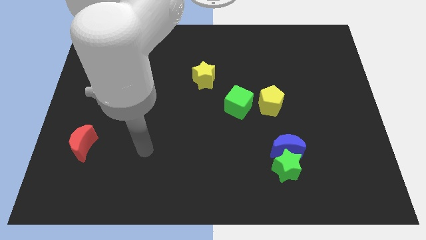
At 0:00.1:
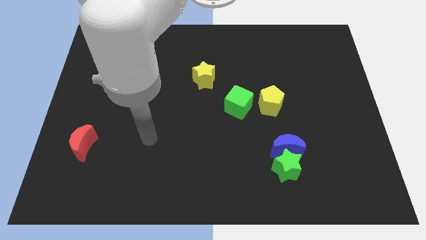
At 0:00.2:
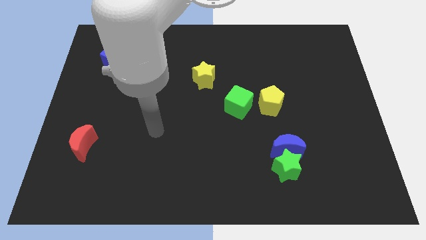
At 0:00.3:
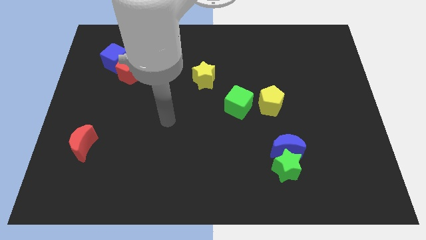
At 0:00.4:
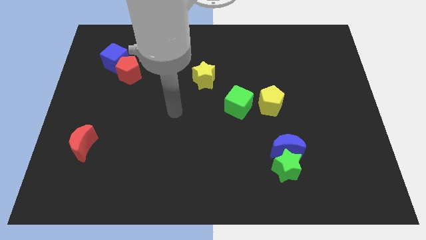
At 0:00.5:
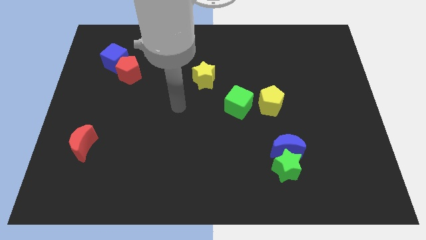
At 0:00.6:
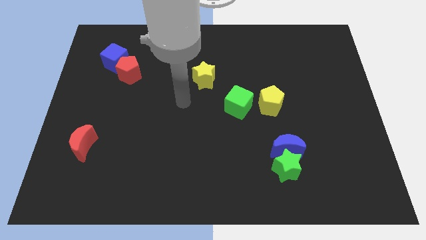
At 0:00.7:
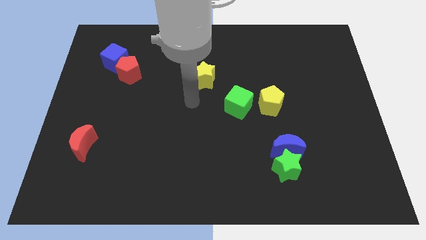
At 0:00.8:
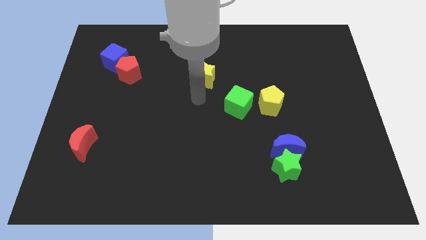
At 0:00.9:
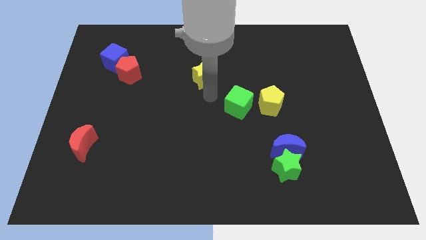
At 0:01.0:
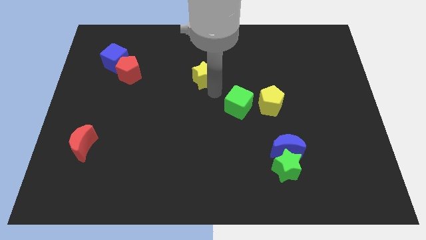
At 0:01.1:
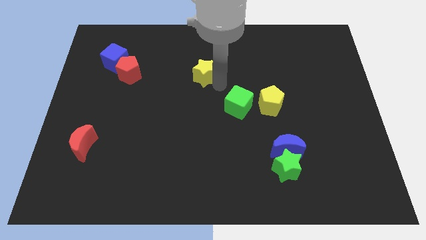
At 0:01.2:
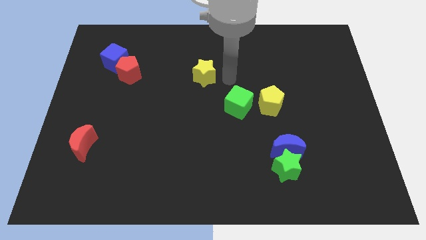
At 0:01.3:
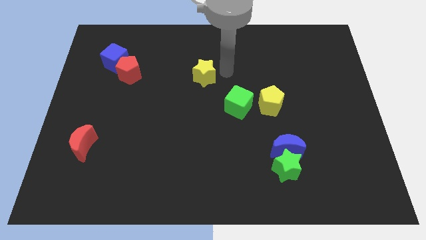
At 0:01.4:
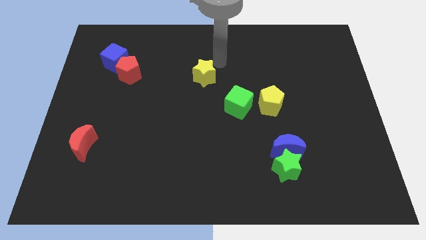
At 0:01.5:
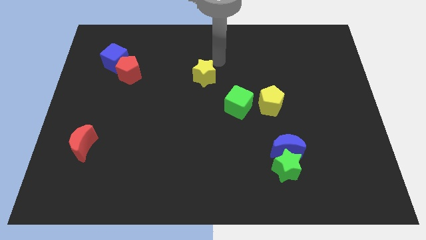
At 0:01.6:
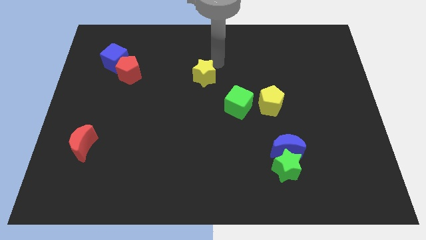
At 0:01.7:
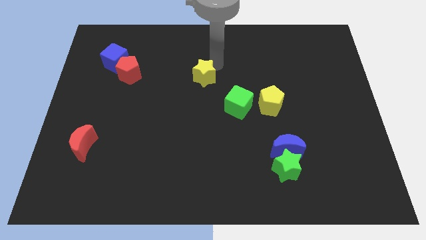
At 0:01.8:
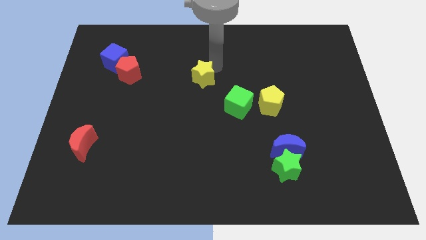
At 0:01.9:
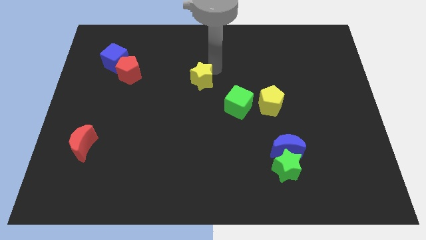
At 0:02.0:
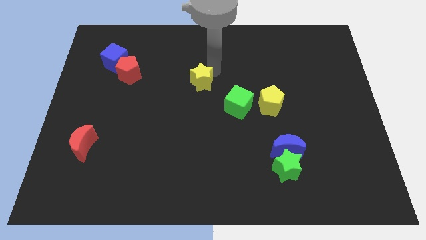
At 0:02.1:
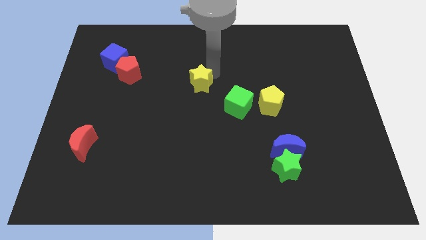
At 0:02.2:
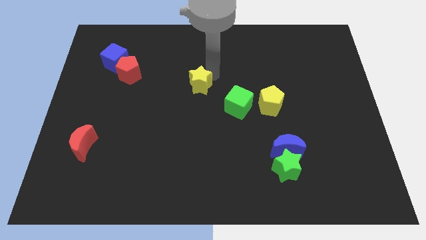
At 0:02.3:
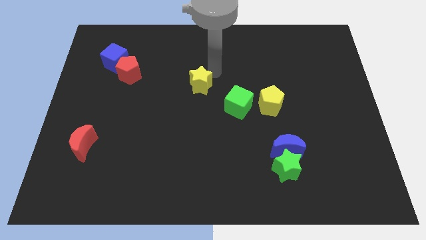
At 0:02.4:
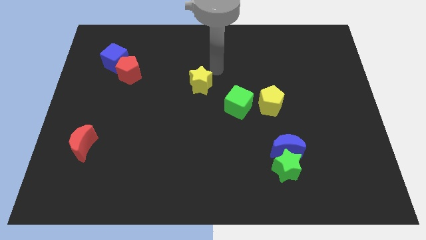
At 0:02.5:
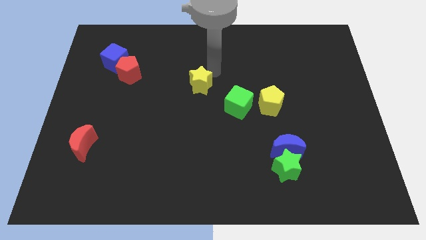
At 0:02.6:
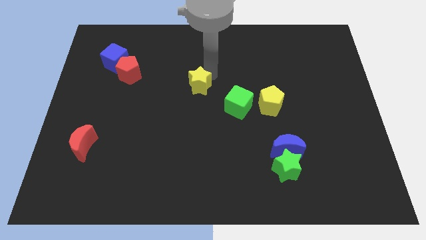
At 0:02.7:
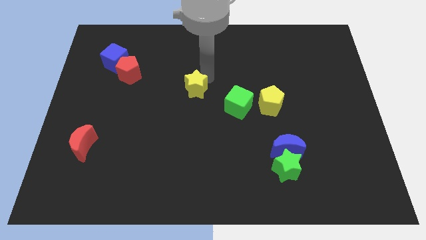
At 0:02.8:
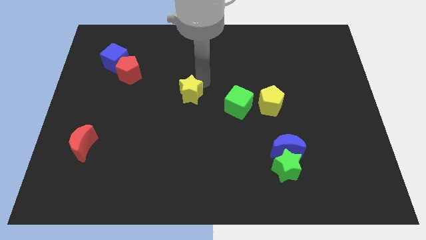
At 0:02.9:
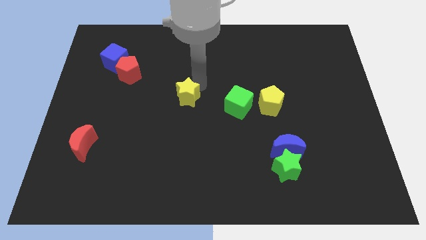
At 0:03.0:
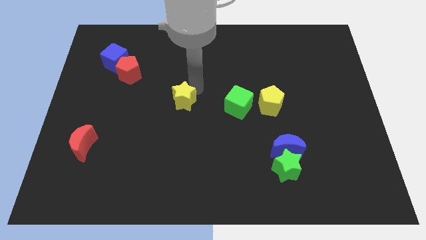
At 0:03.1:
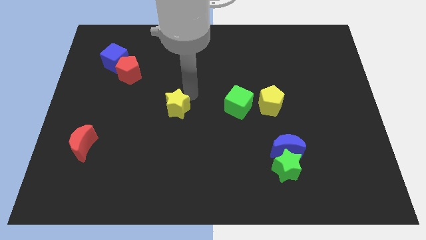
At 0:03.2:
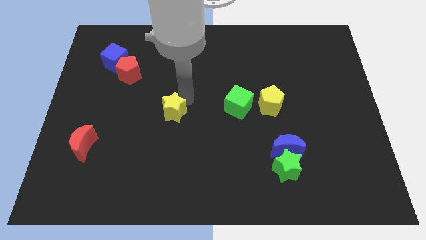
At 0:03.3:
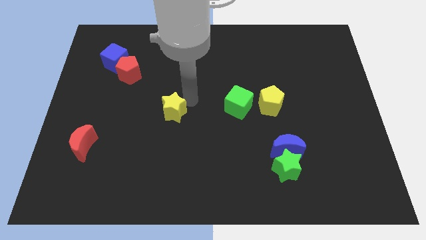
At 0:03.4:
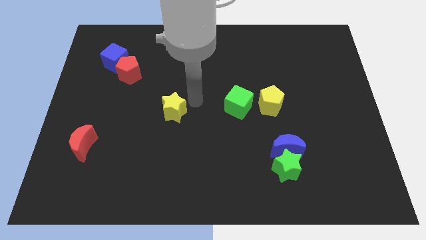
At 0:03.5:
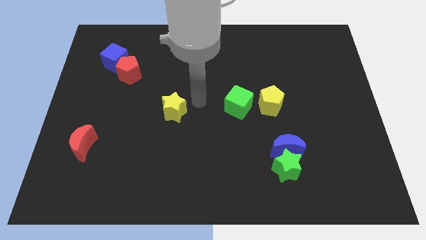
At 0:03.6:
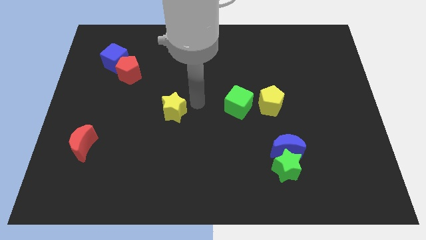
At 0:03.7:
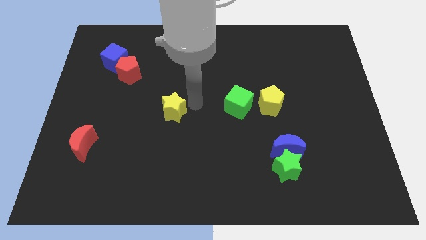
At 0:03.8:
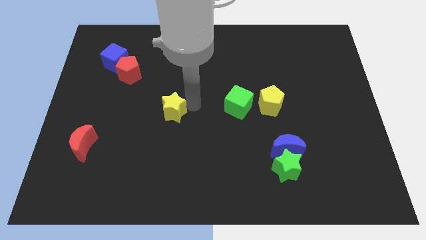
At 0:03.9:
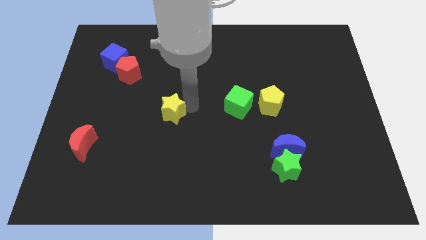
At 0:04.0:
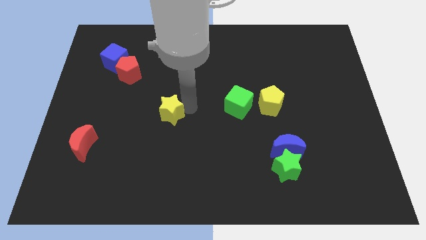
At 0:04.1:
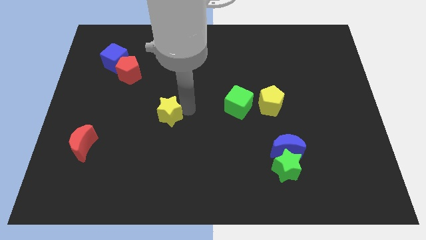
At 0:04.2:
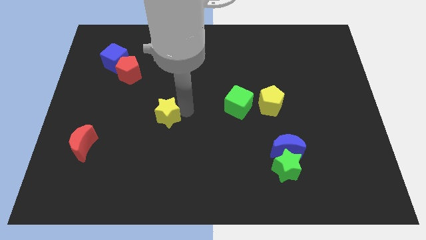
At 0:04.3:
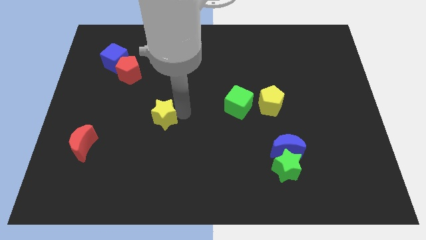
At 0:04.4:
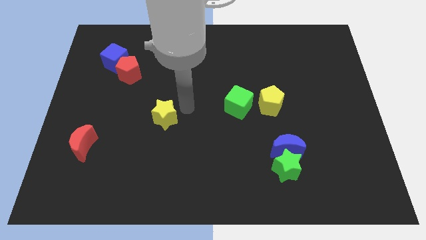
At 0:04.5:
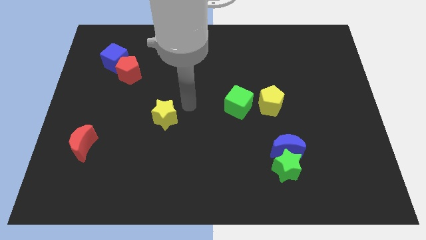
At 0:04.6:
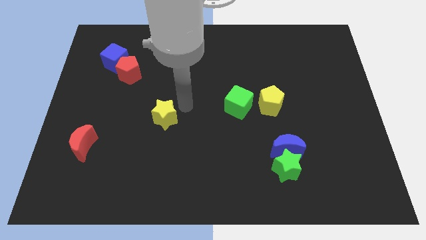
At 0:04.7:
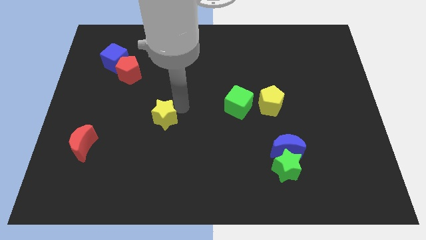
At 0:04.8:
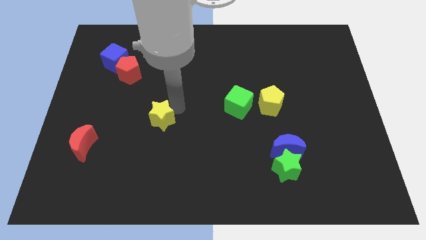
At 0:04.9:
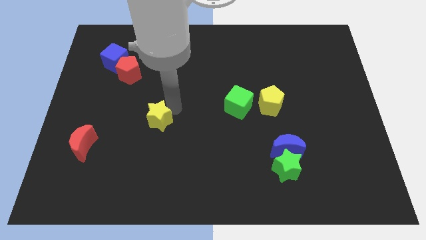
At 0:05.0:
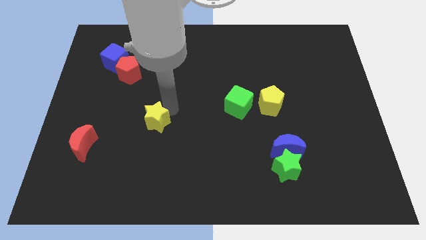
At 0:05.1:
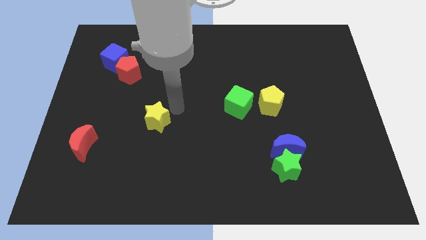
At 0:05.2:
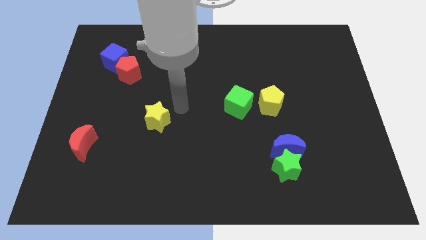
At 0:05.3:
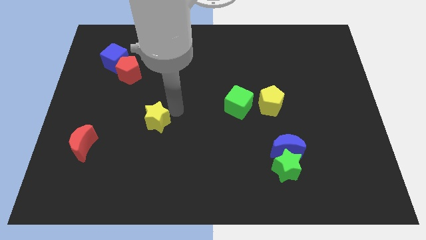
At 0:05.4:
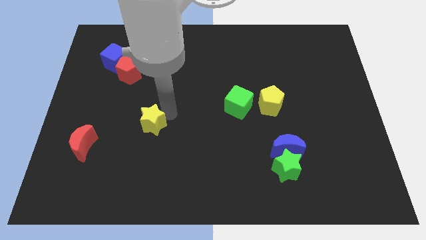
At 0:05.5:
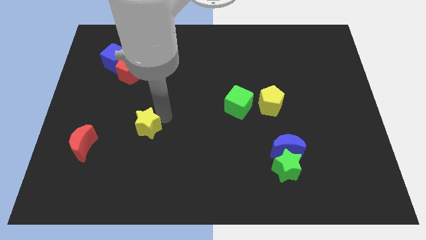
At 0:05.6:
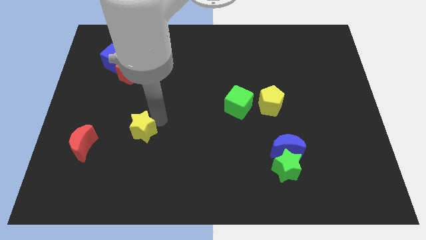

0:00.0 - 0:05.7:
slide the yellow star downwards and left diagonally

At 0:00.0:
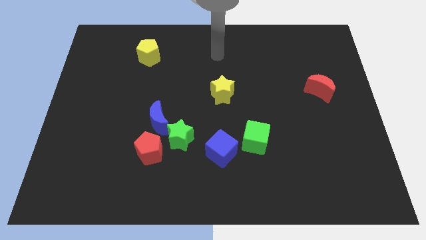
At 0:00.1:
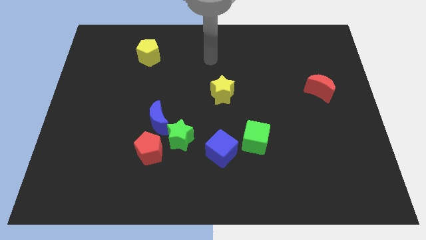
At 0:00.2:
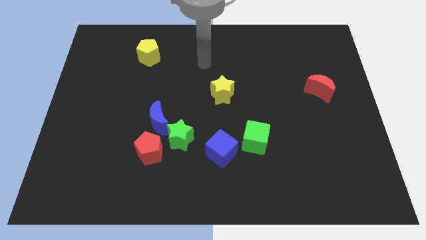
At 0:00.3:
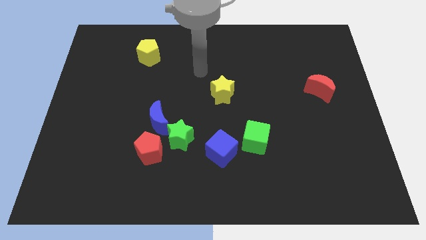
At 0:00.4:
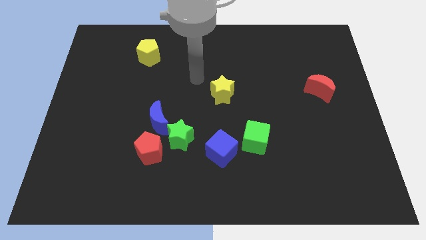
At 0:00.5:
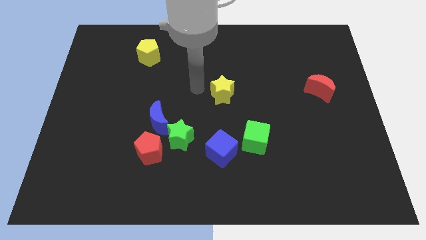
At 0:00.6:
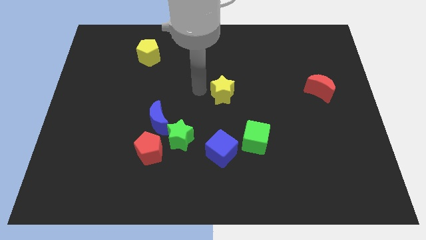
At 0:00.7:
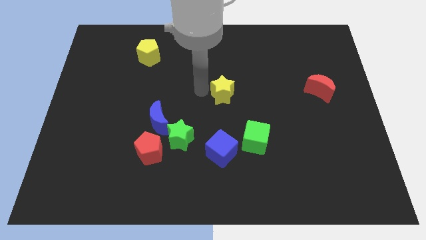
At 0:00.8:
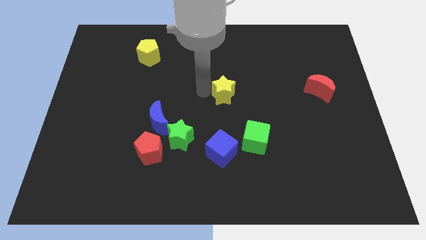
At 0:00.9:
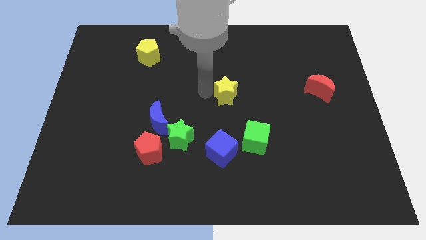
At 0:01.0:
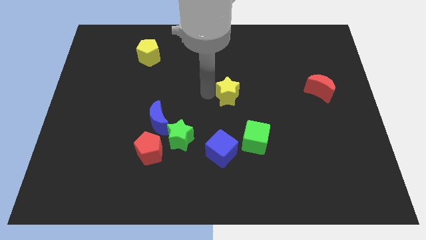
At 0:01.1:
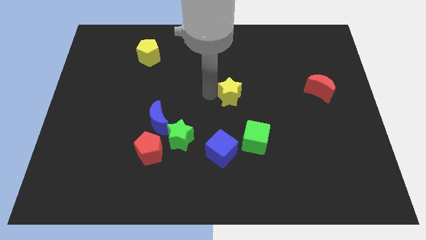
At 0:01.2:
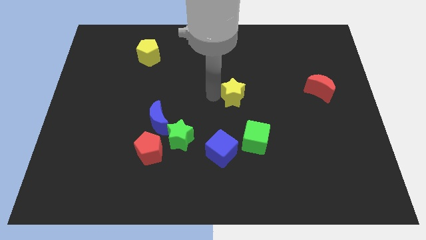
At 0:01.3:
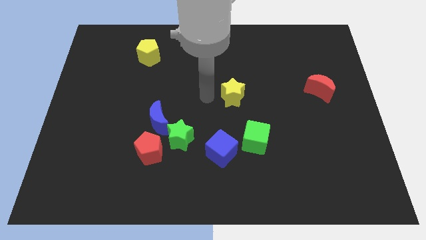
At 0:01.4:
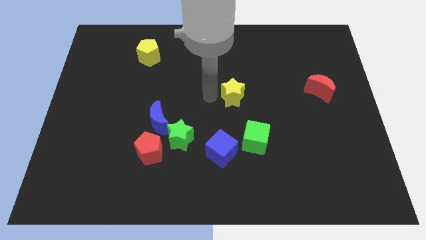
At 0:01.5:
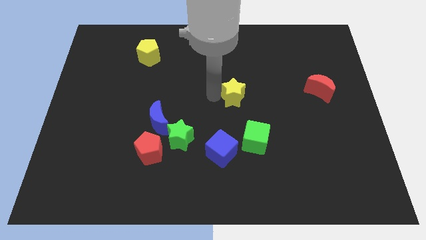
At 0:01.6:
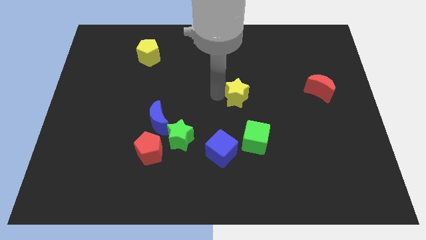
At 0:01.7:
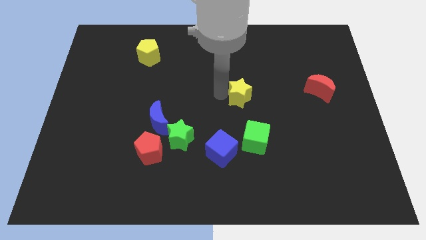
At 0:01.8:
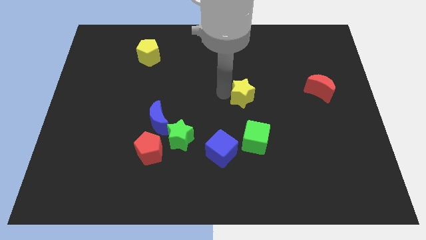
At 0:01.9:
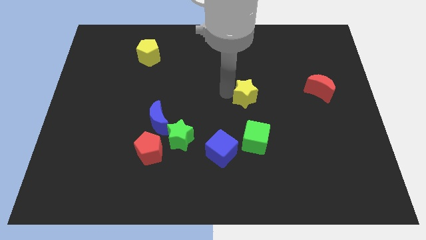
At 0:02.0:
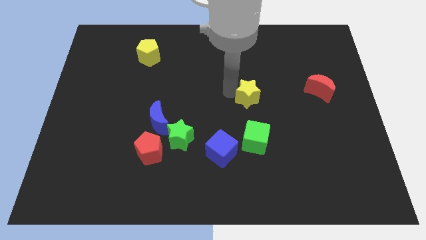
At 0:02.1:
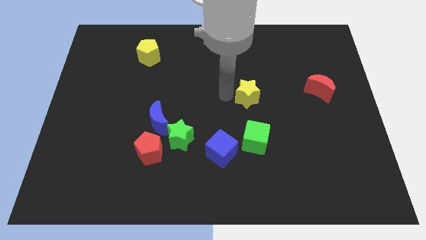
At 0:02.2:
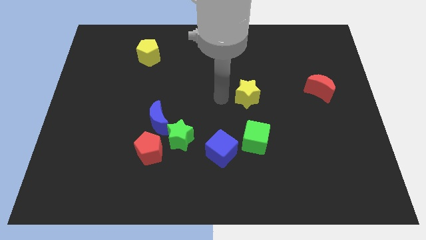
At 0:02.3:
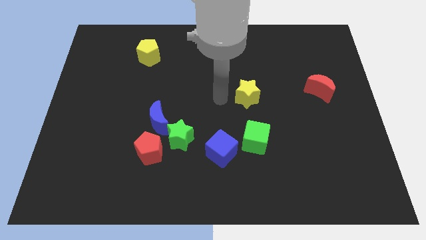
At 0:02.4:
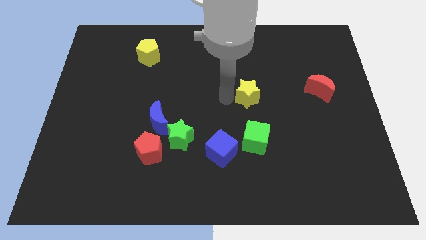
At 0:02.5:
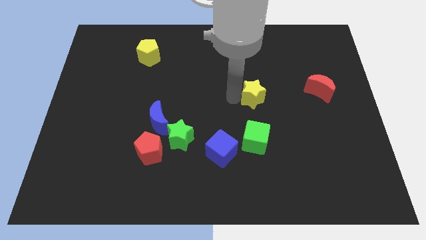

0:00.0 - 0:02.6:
move the yellow star right somewhat
